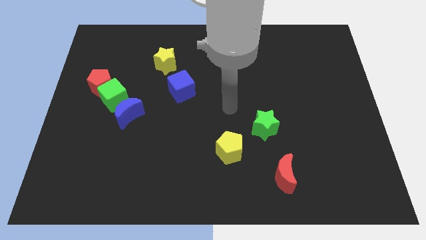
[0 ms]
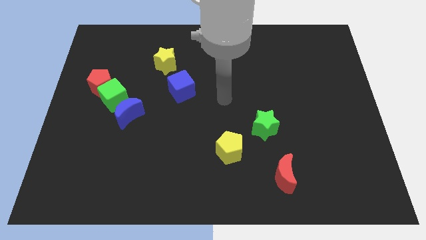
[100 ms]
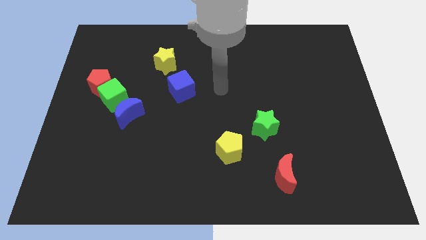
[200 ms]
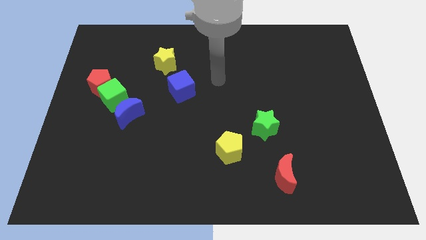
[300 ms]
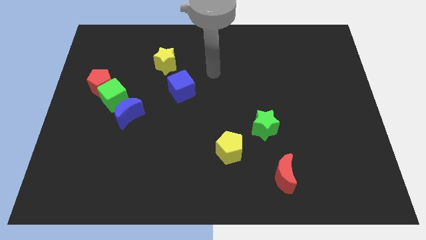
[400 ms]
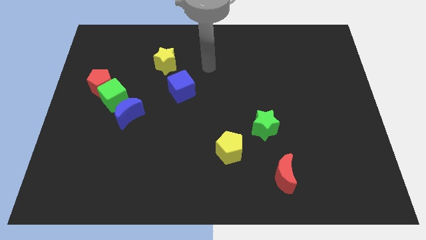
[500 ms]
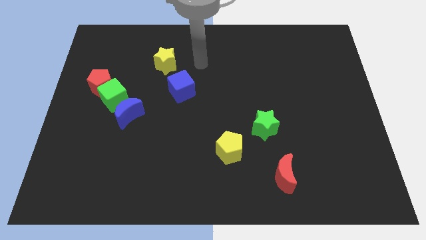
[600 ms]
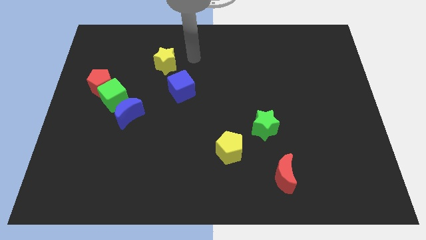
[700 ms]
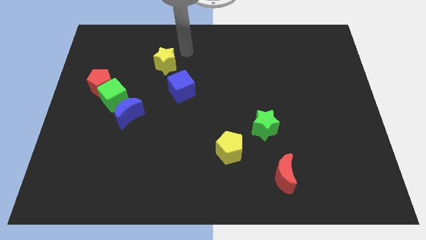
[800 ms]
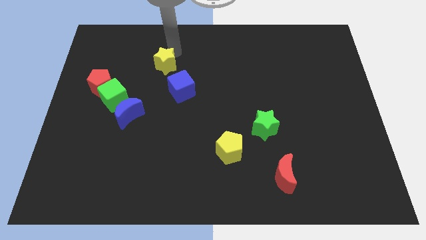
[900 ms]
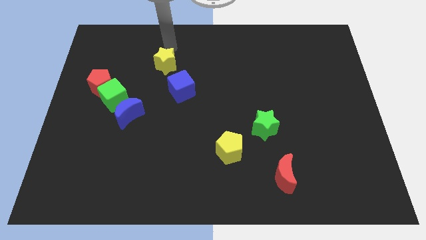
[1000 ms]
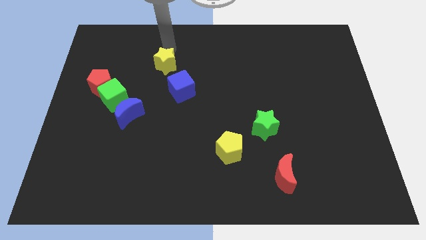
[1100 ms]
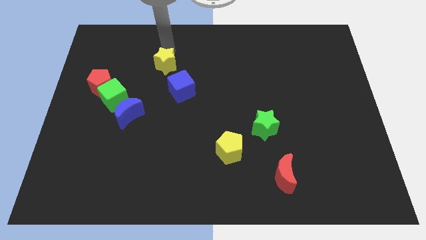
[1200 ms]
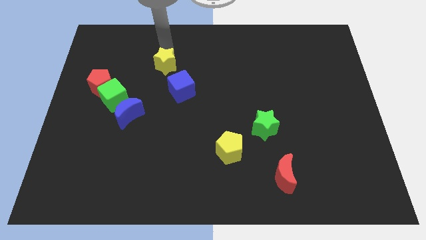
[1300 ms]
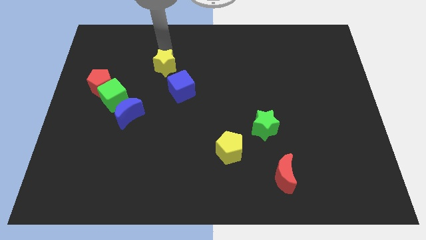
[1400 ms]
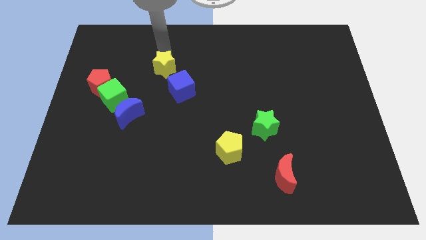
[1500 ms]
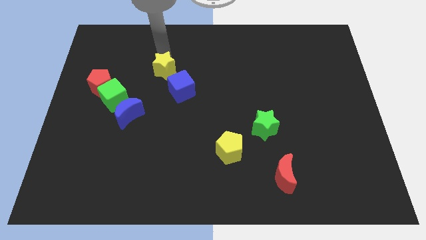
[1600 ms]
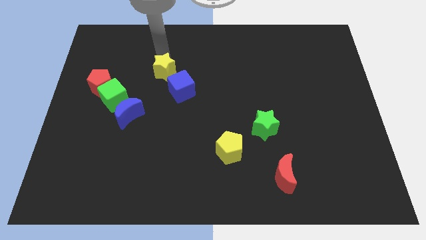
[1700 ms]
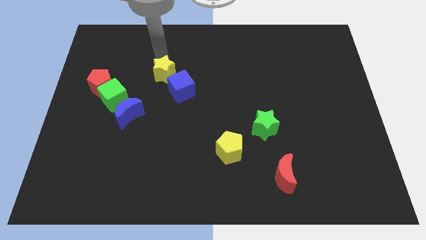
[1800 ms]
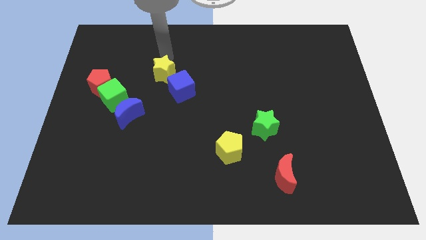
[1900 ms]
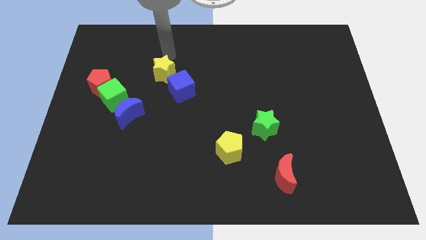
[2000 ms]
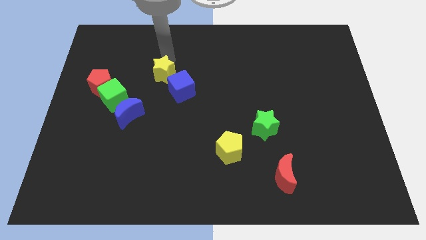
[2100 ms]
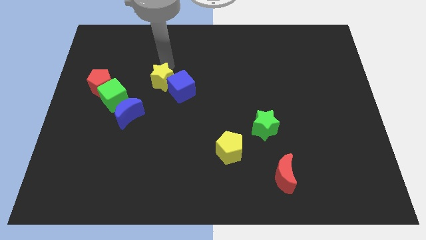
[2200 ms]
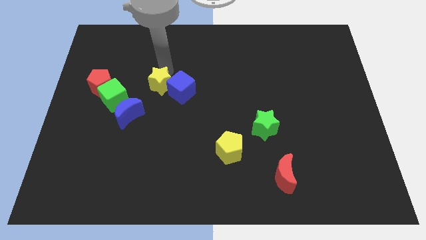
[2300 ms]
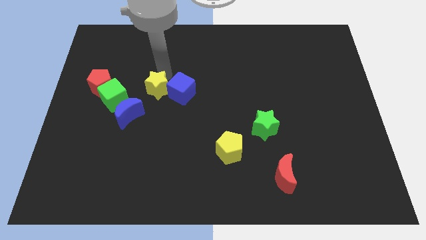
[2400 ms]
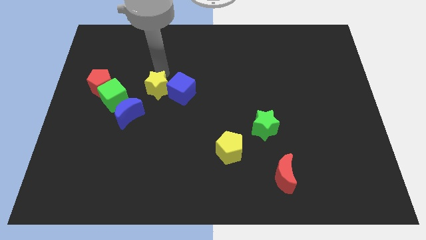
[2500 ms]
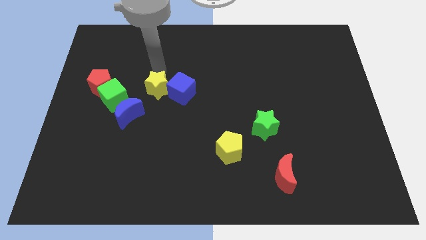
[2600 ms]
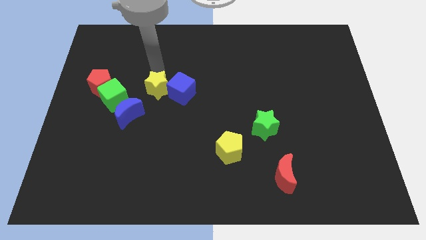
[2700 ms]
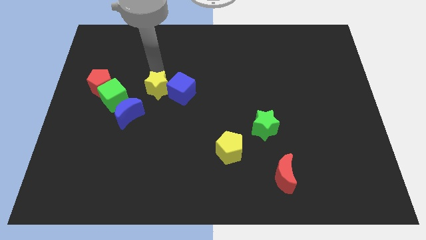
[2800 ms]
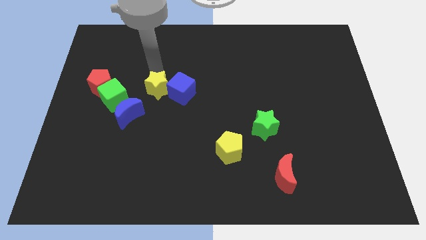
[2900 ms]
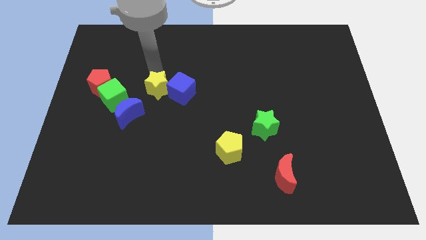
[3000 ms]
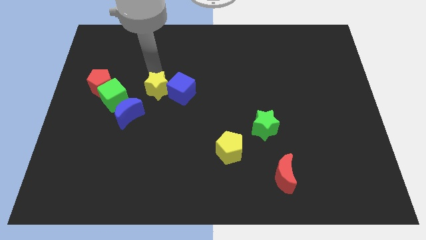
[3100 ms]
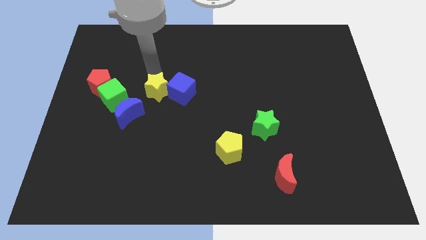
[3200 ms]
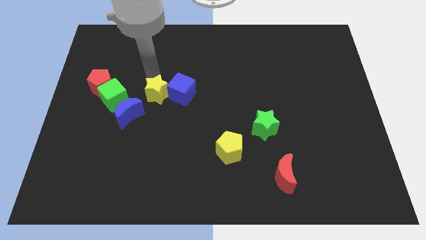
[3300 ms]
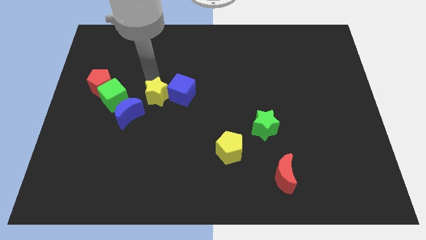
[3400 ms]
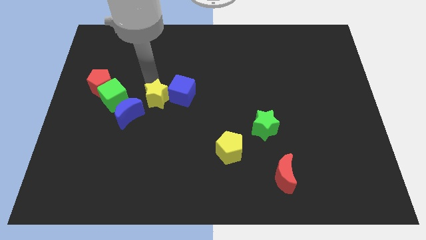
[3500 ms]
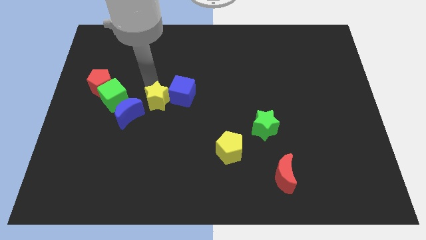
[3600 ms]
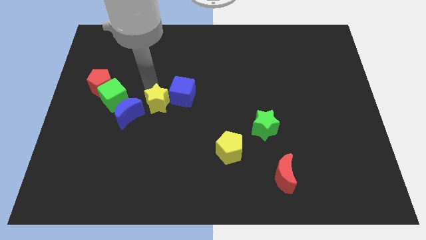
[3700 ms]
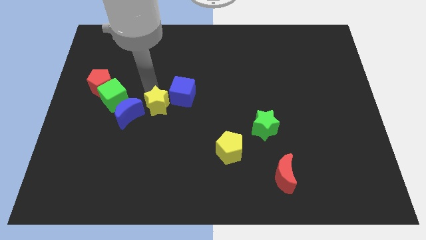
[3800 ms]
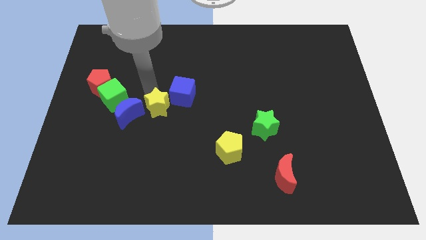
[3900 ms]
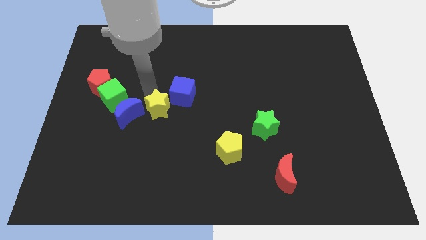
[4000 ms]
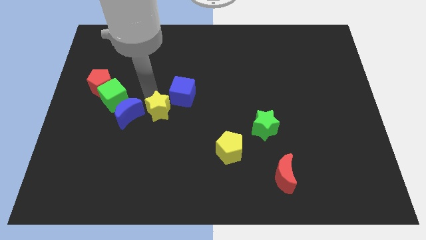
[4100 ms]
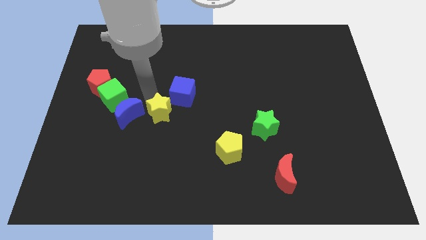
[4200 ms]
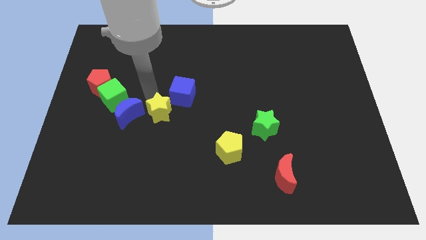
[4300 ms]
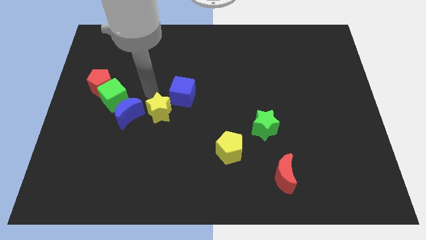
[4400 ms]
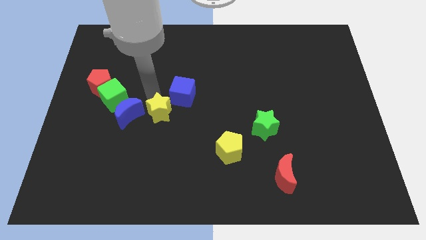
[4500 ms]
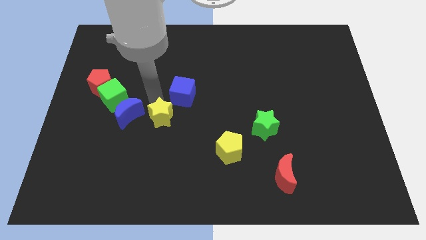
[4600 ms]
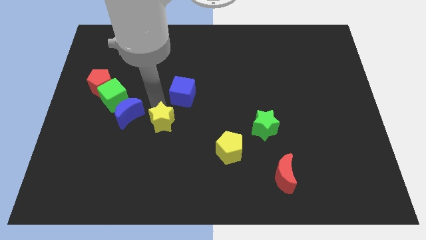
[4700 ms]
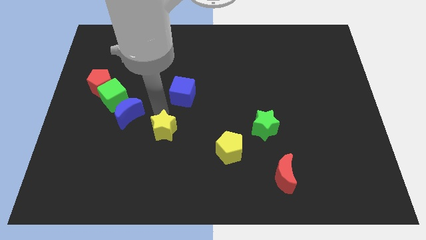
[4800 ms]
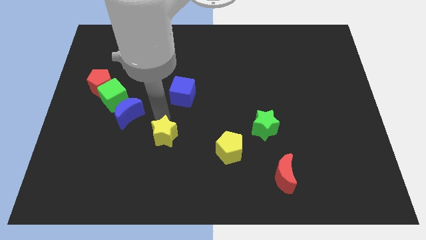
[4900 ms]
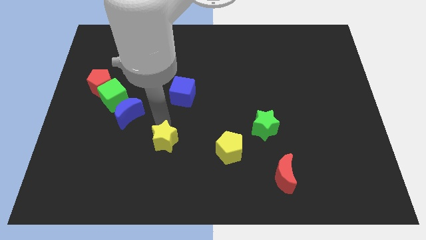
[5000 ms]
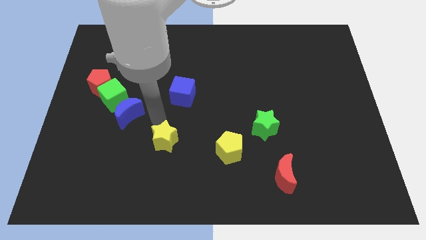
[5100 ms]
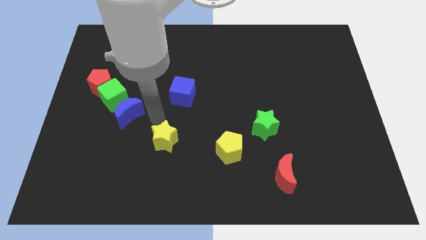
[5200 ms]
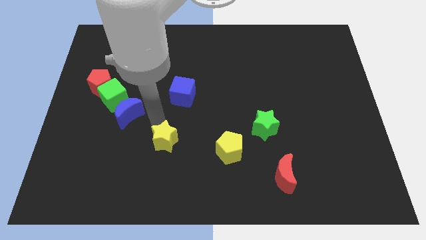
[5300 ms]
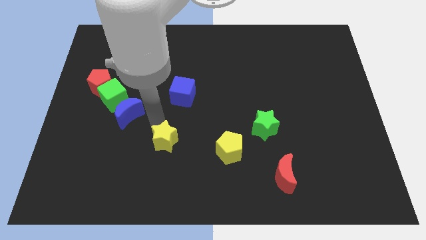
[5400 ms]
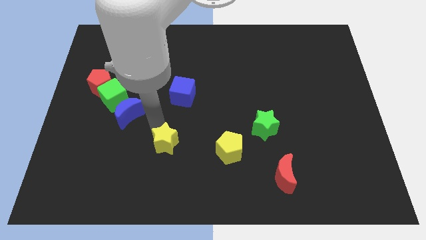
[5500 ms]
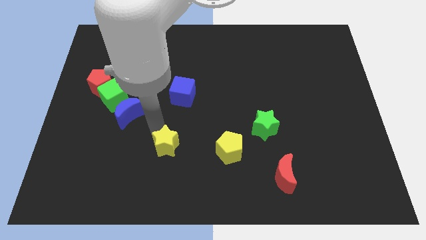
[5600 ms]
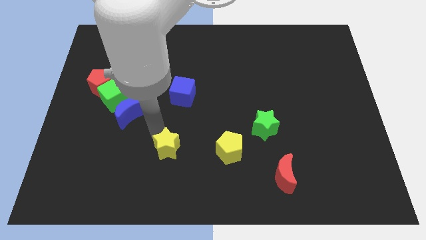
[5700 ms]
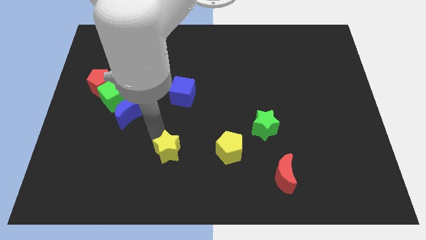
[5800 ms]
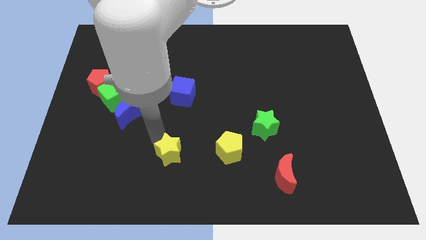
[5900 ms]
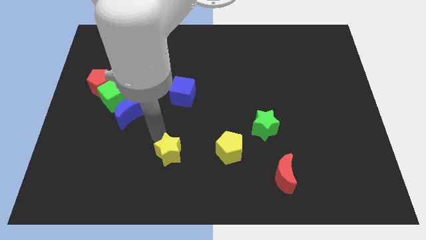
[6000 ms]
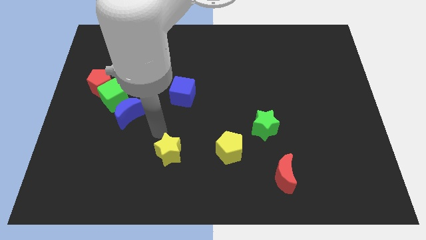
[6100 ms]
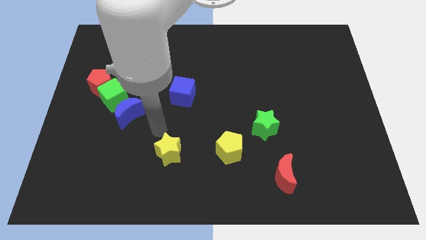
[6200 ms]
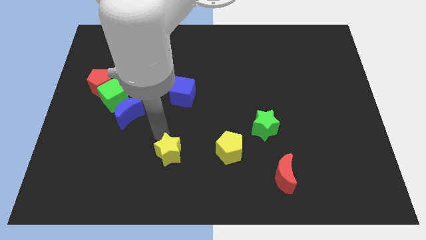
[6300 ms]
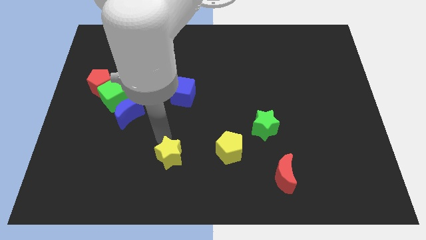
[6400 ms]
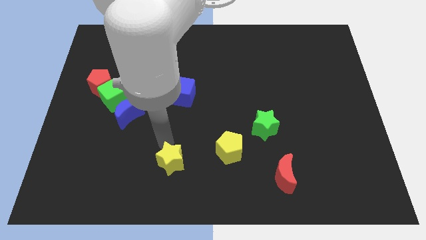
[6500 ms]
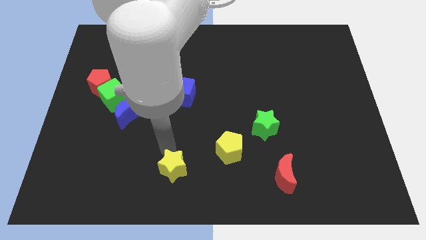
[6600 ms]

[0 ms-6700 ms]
move the yellow star to the bottom side
